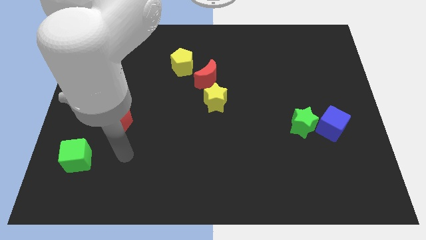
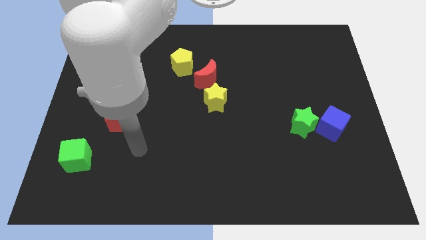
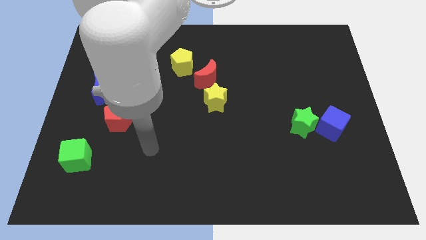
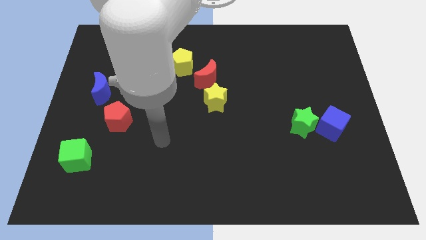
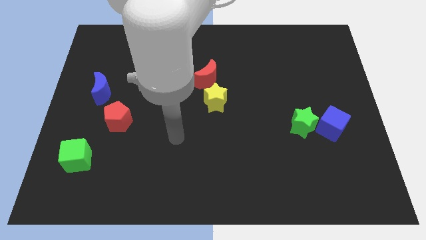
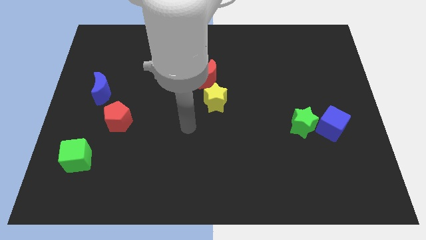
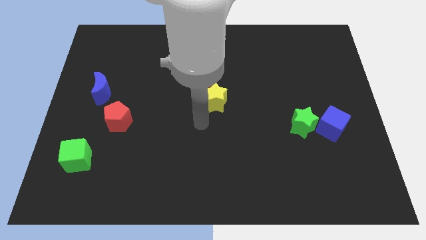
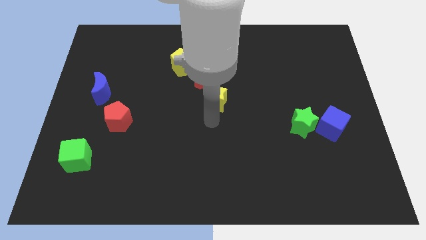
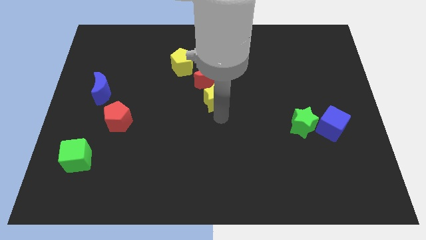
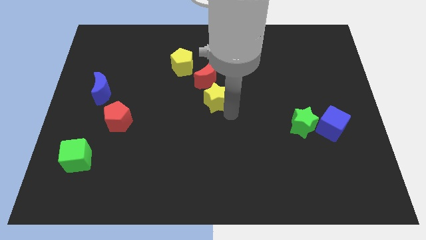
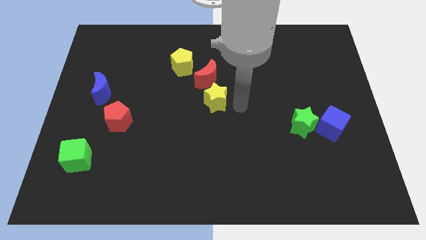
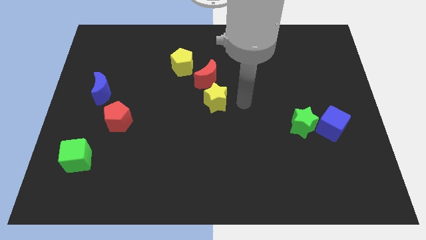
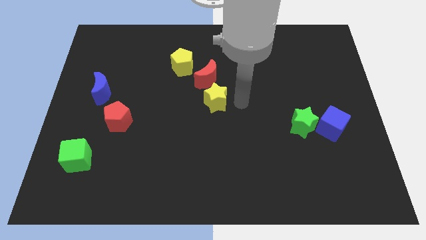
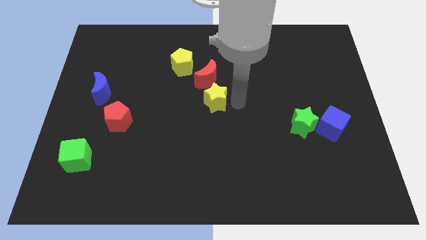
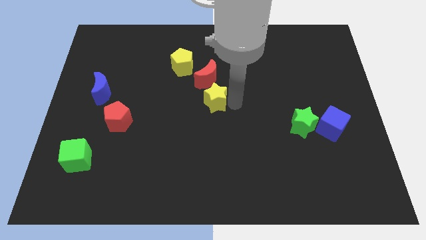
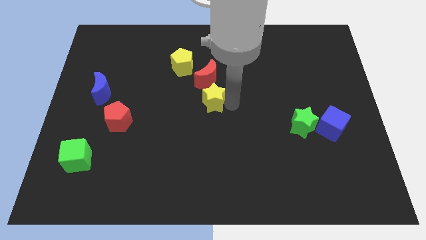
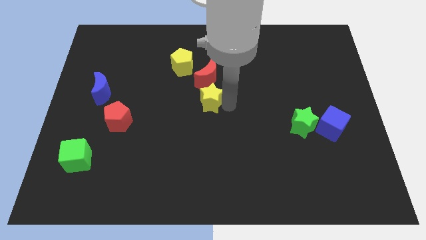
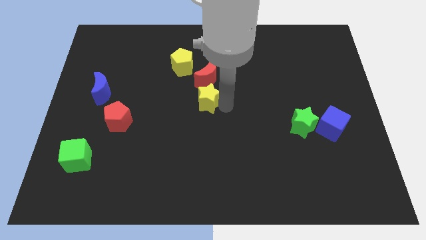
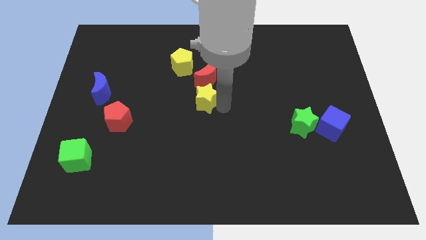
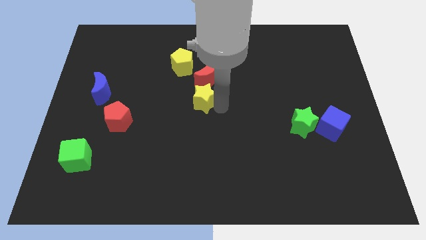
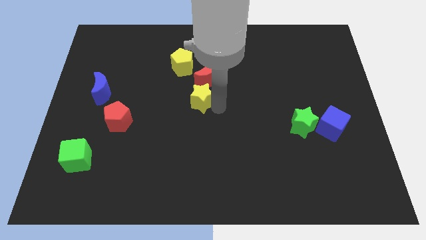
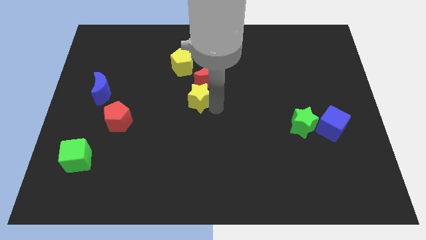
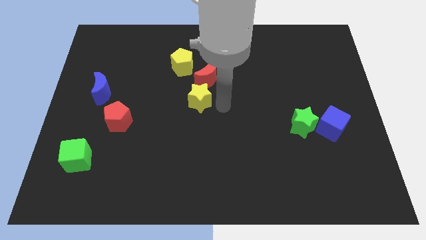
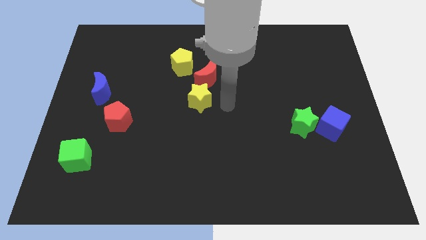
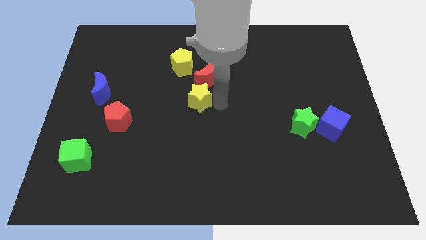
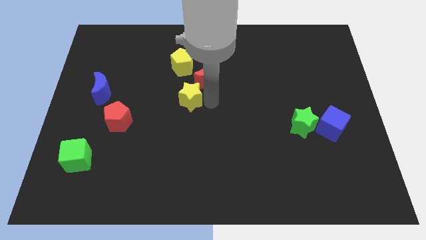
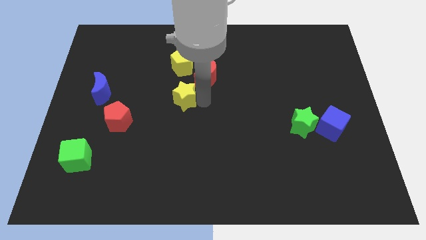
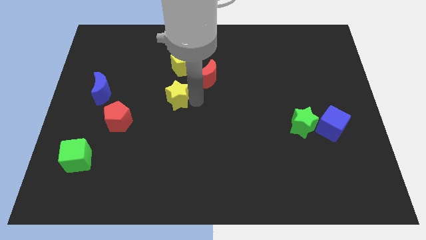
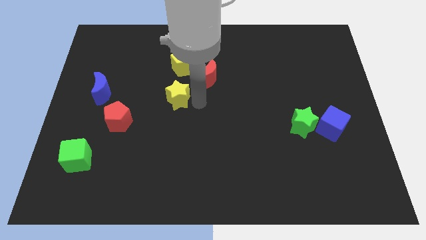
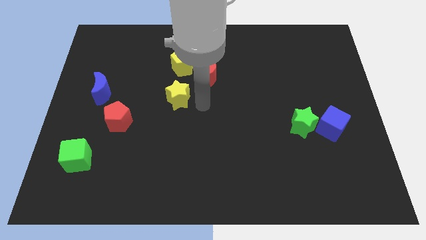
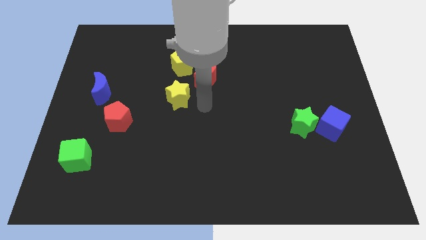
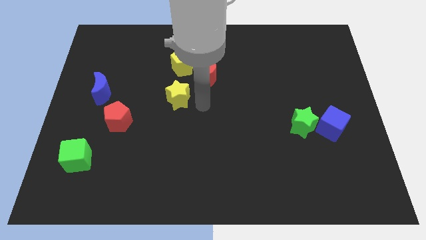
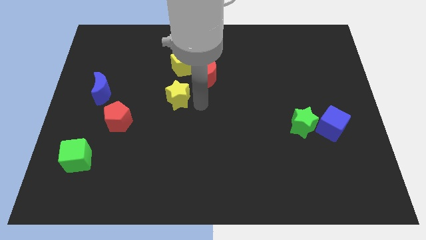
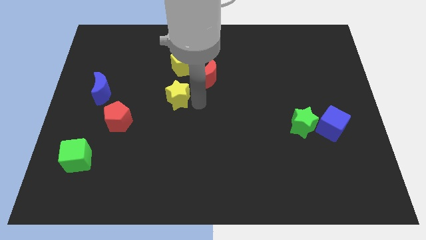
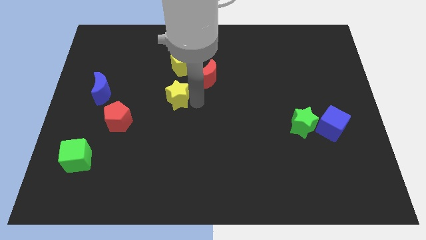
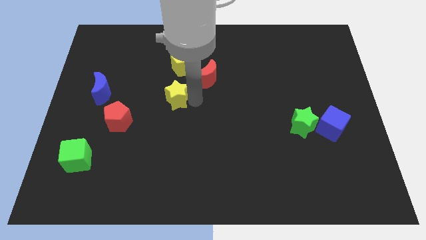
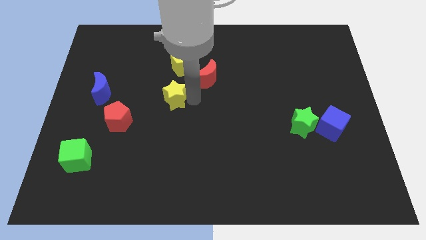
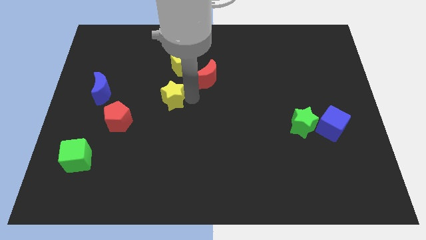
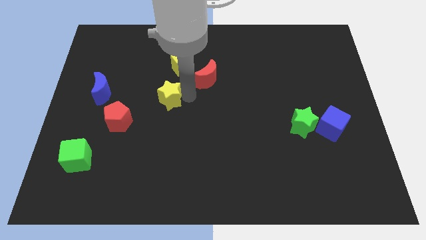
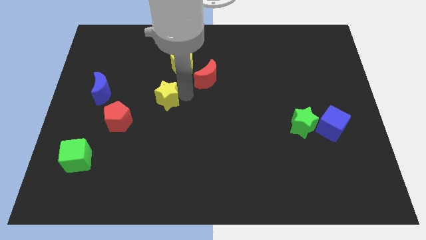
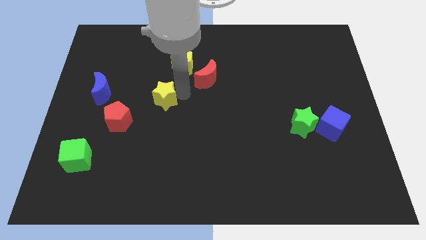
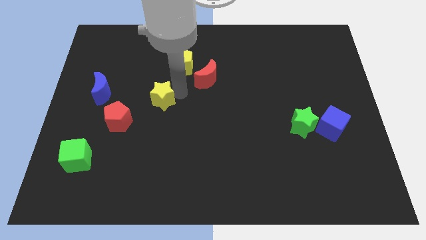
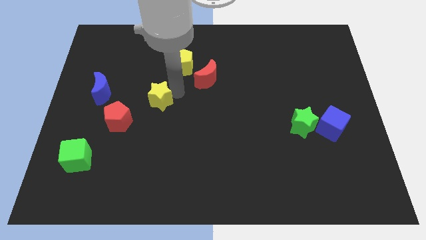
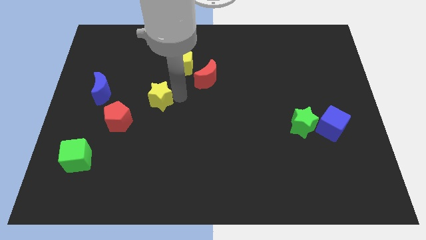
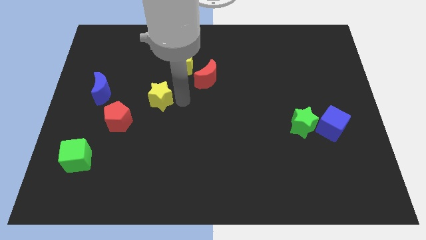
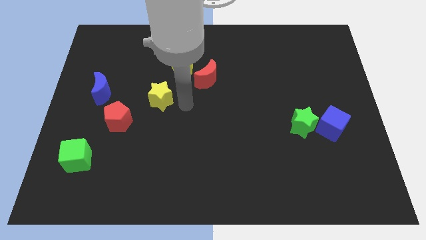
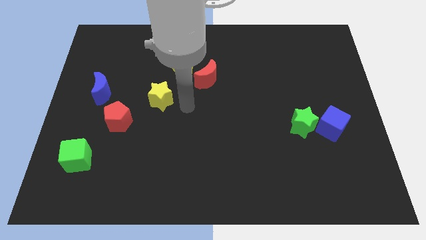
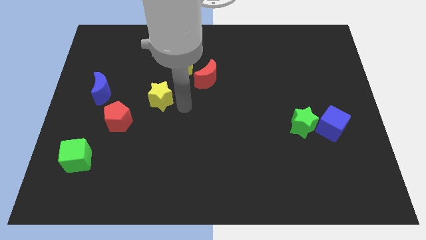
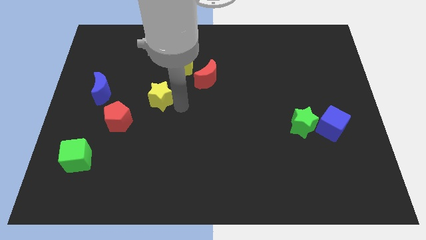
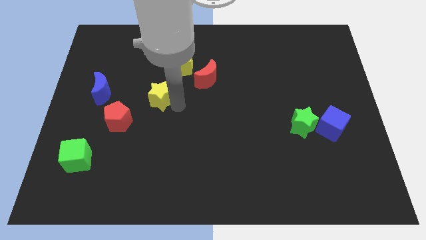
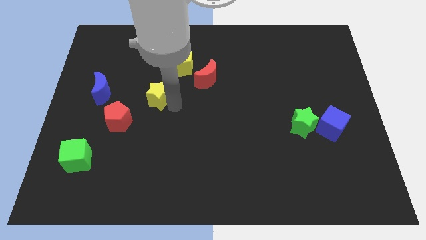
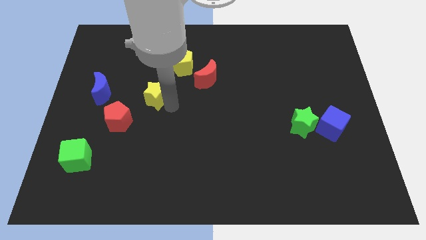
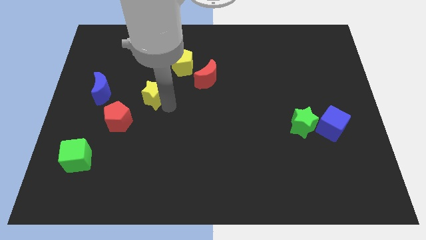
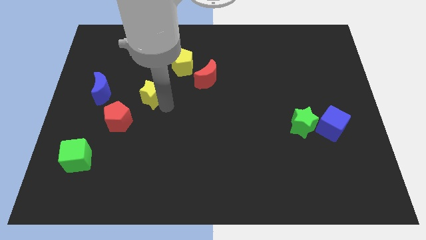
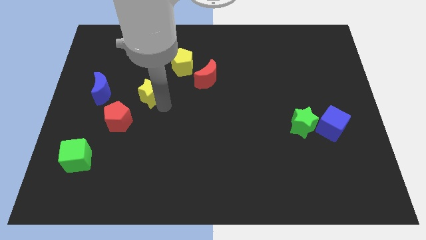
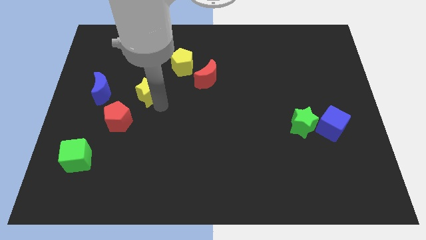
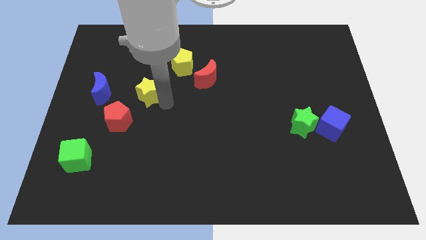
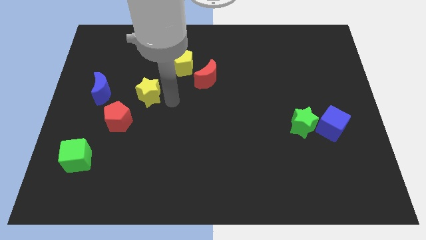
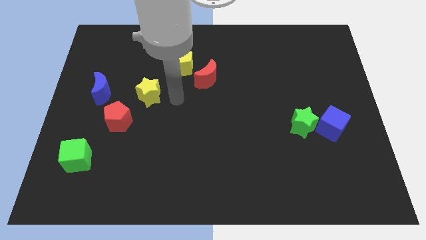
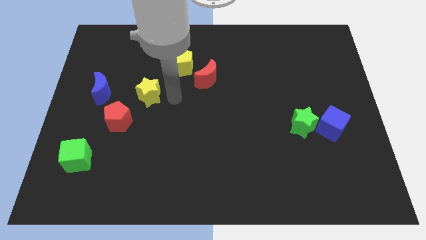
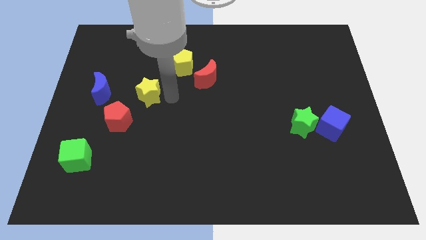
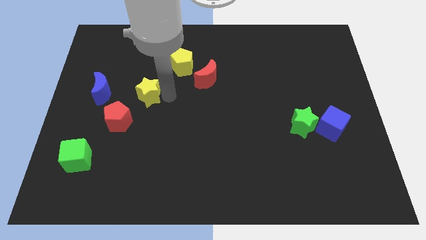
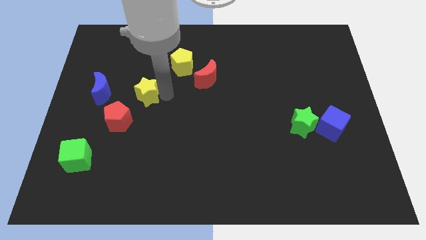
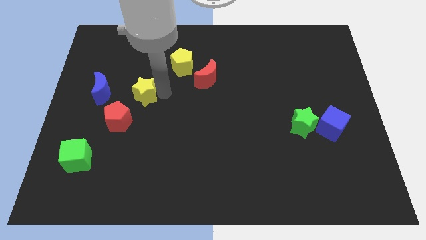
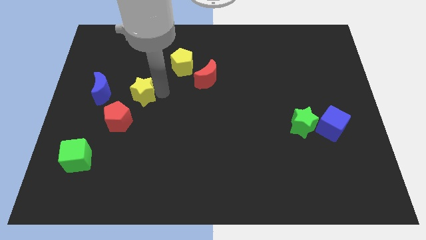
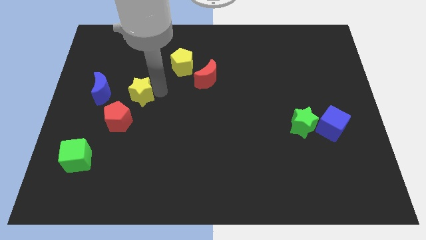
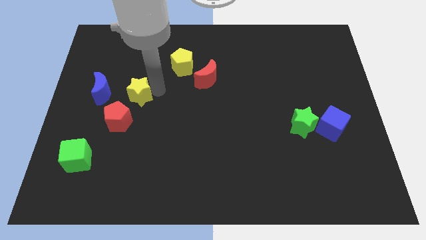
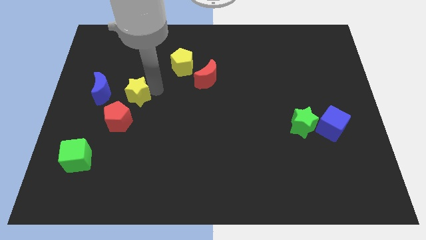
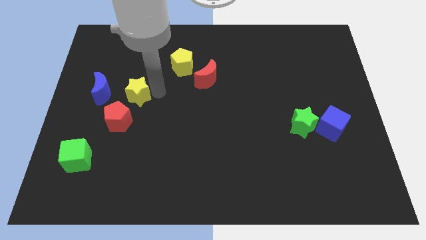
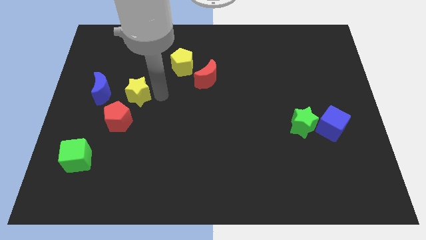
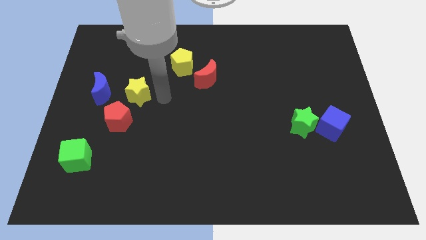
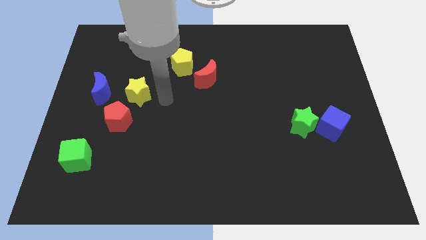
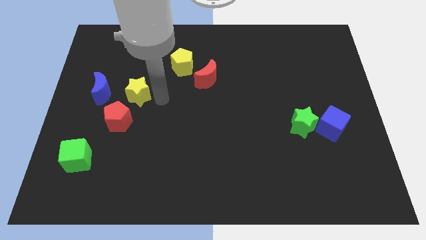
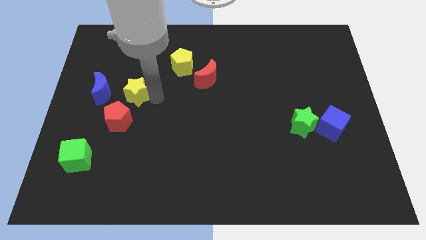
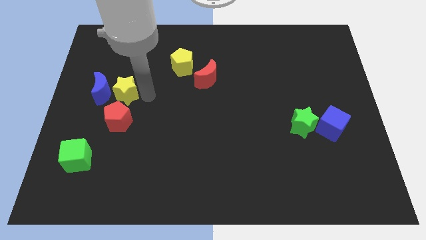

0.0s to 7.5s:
put the yellow star towards the blue moon

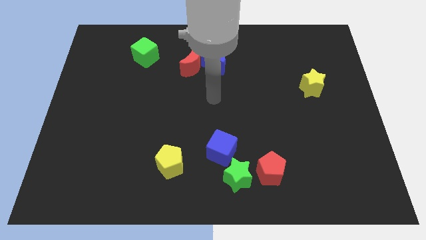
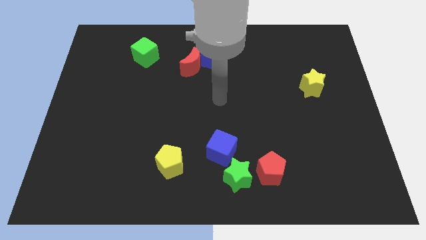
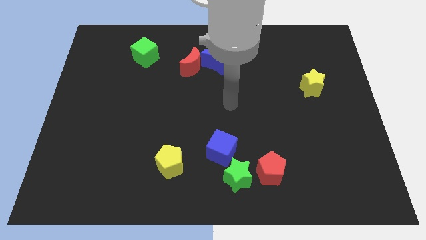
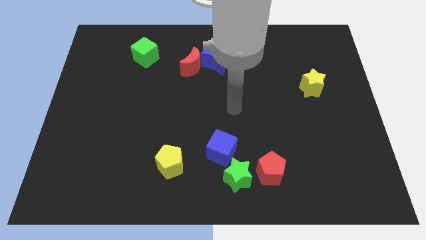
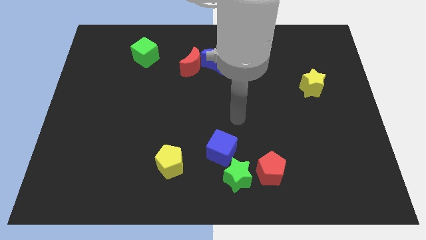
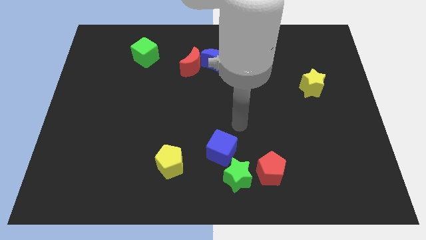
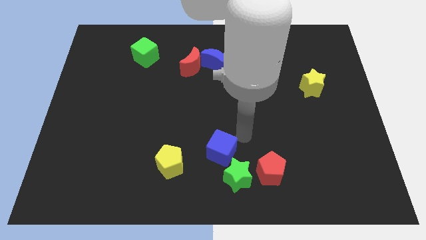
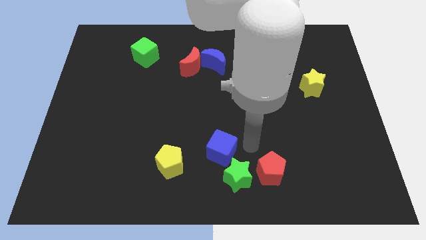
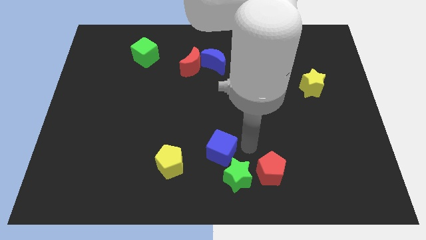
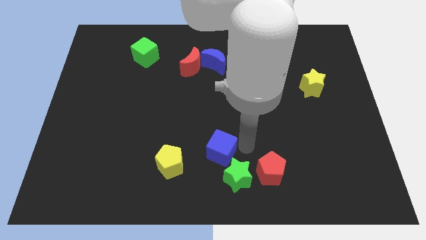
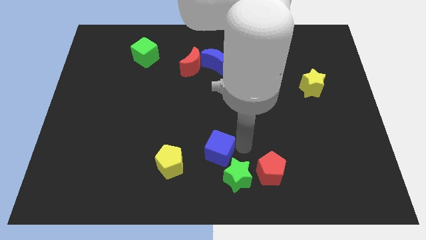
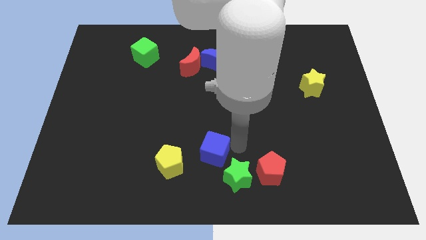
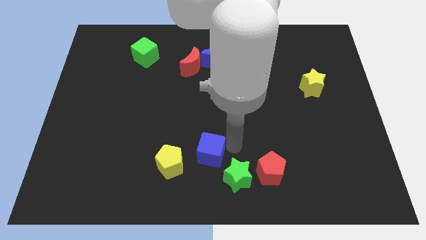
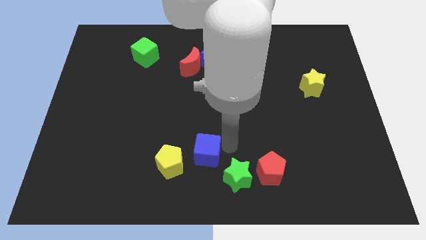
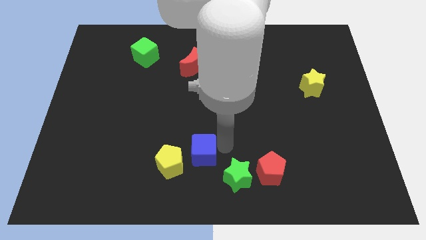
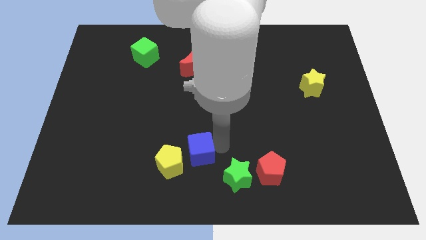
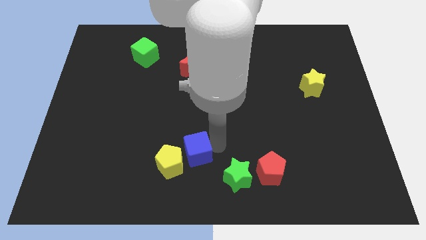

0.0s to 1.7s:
put the blue cube towards the yellow pentagon
